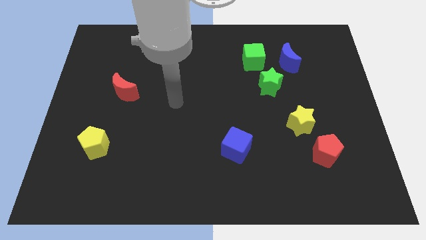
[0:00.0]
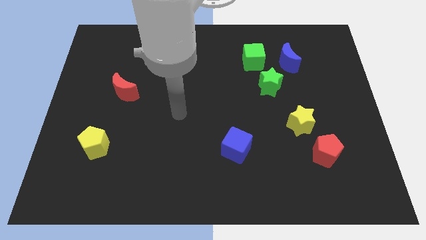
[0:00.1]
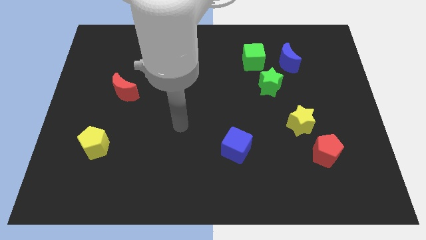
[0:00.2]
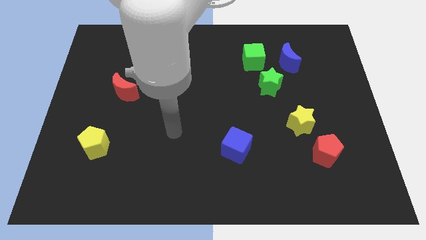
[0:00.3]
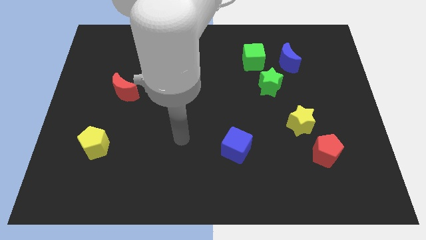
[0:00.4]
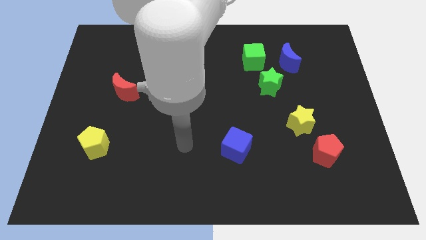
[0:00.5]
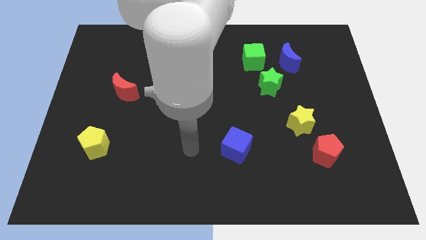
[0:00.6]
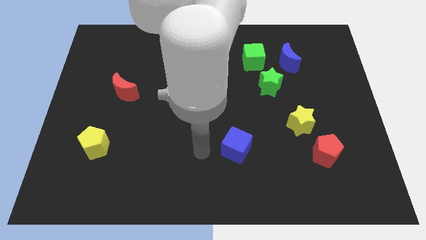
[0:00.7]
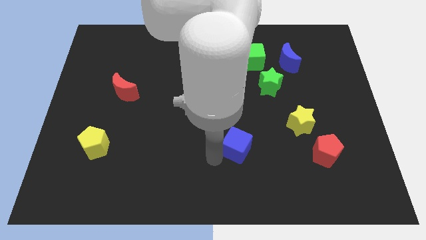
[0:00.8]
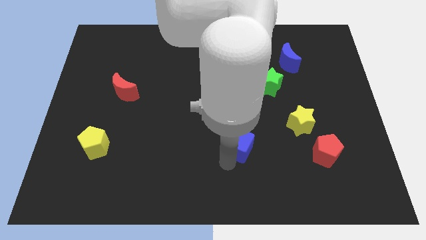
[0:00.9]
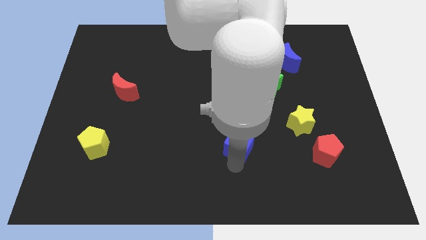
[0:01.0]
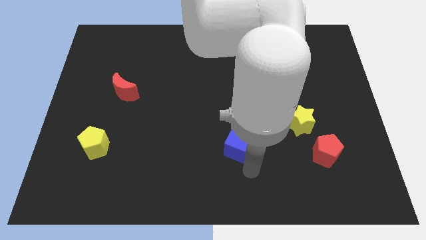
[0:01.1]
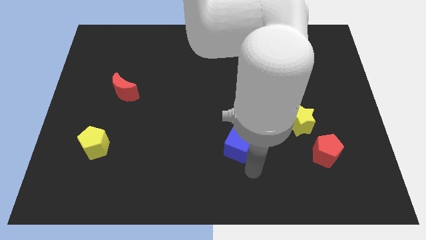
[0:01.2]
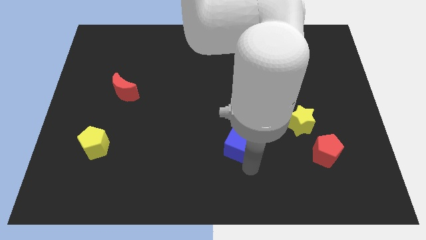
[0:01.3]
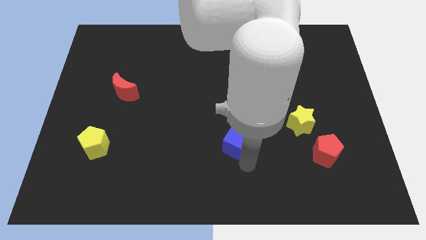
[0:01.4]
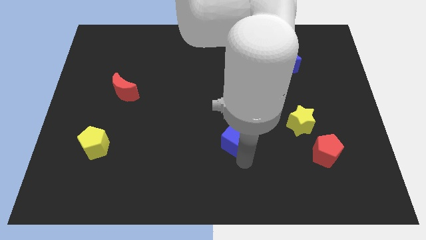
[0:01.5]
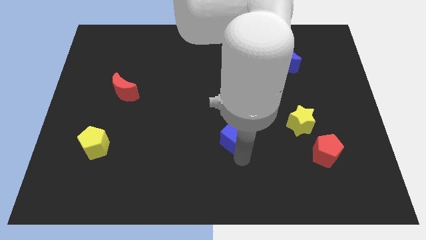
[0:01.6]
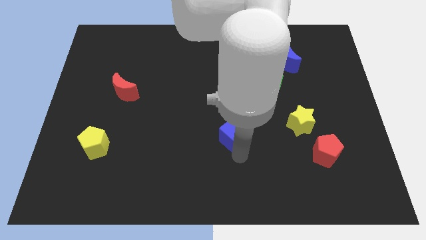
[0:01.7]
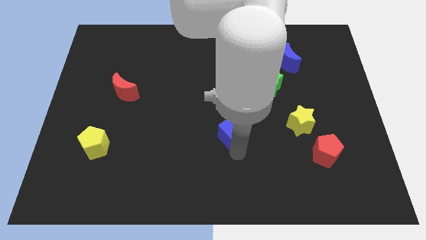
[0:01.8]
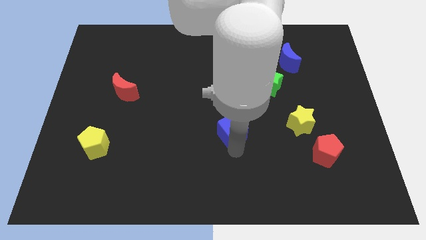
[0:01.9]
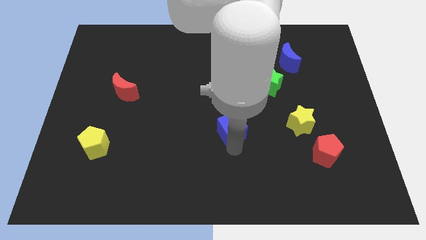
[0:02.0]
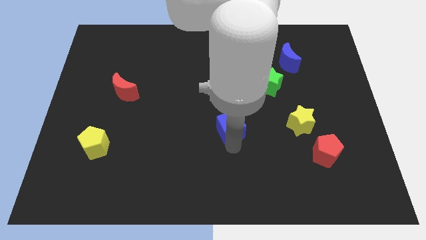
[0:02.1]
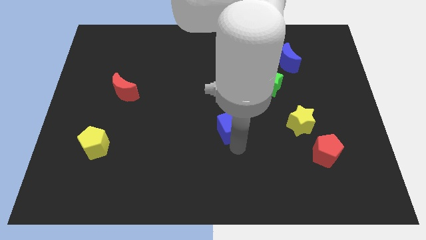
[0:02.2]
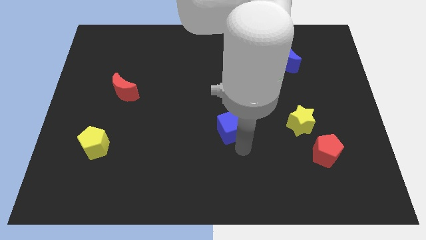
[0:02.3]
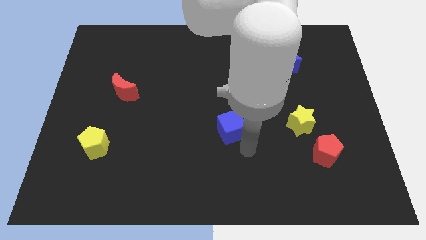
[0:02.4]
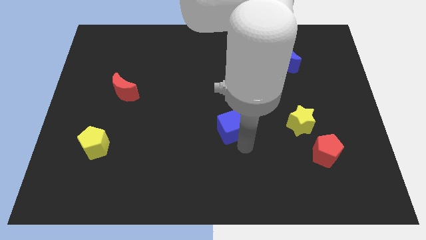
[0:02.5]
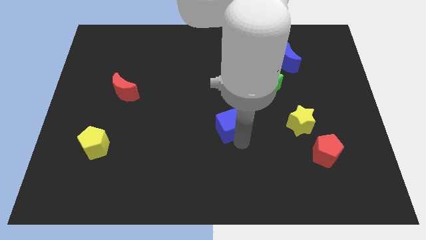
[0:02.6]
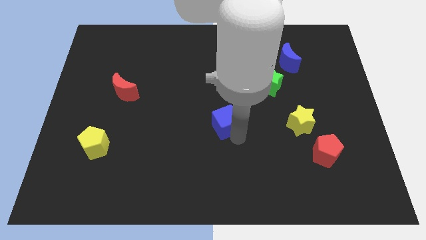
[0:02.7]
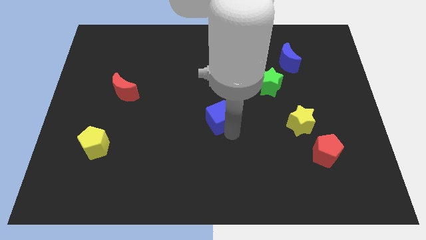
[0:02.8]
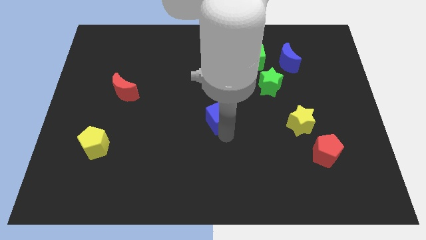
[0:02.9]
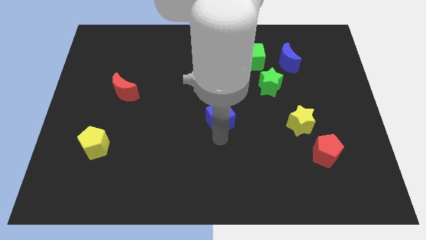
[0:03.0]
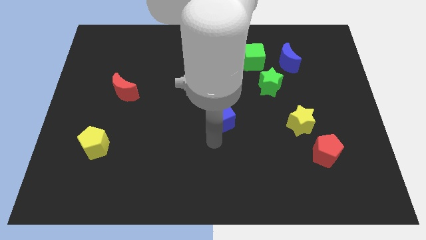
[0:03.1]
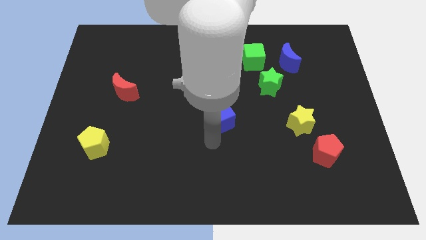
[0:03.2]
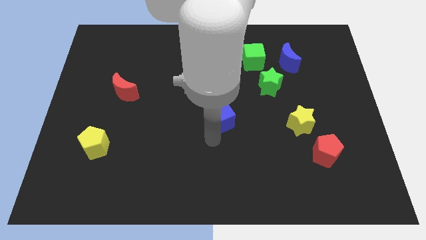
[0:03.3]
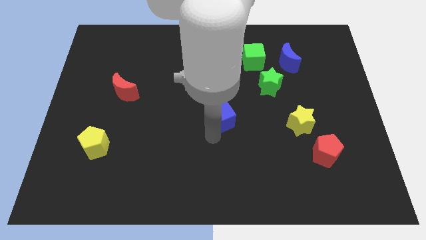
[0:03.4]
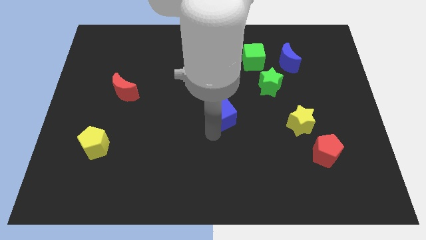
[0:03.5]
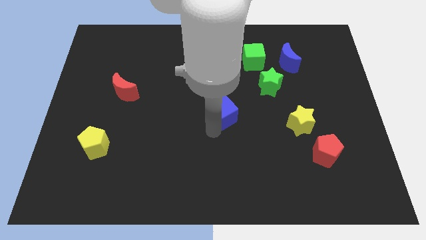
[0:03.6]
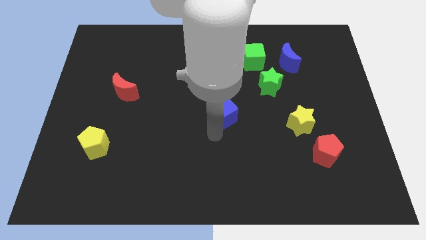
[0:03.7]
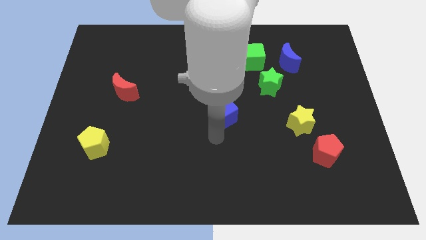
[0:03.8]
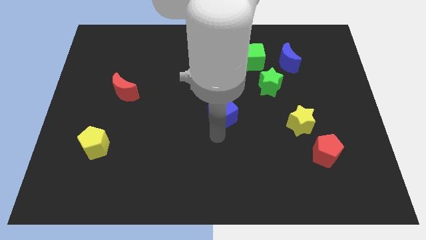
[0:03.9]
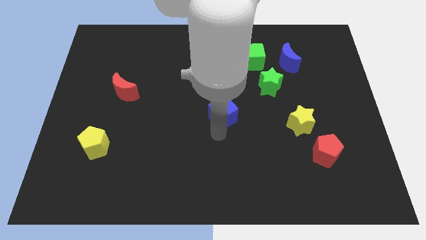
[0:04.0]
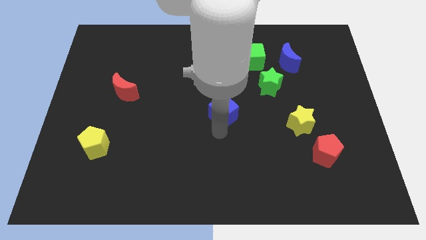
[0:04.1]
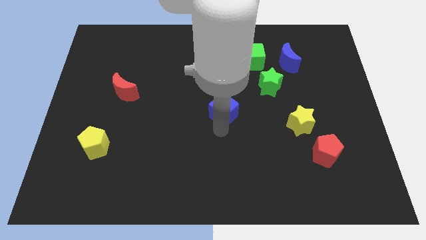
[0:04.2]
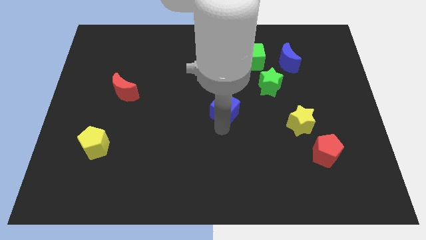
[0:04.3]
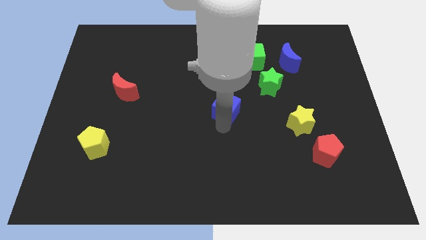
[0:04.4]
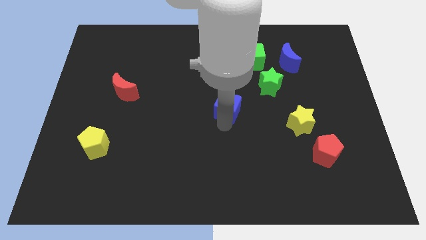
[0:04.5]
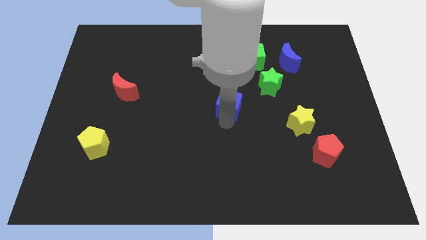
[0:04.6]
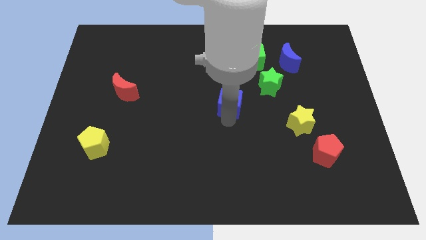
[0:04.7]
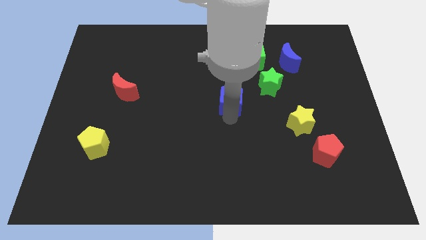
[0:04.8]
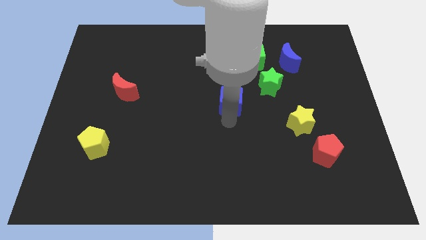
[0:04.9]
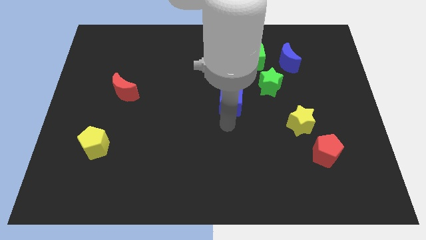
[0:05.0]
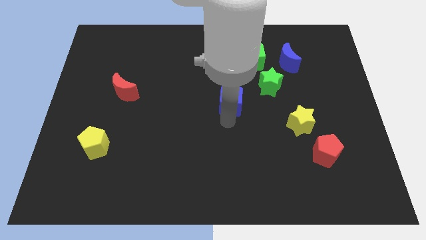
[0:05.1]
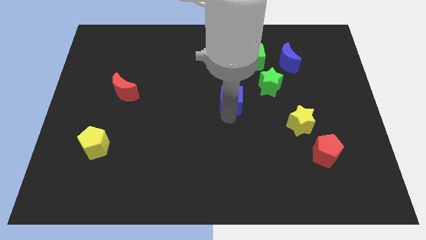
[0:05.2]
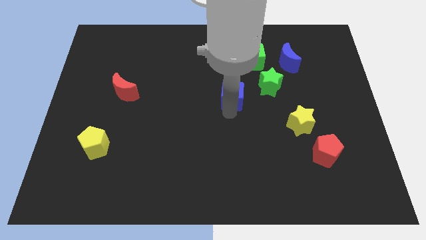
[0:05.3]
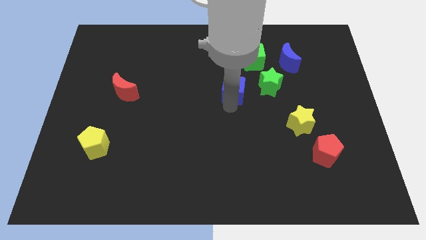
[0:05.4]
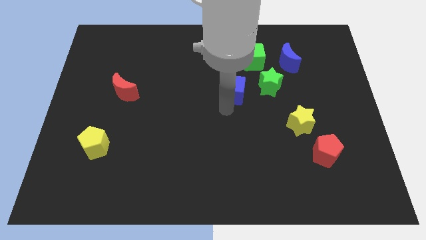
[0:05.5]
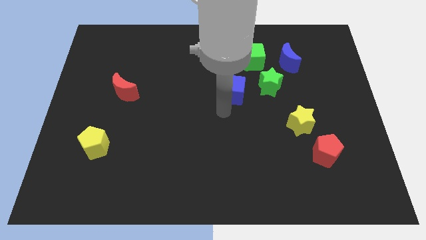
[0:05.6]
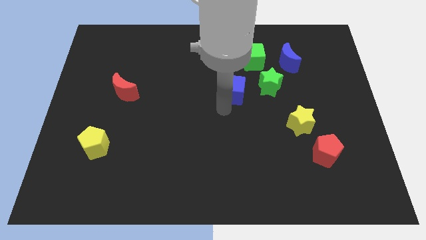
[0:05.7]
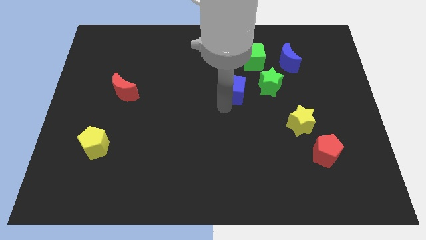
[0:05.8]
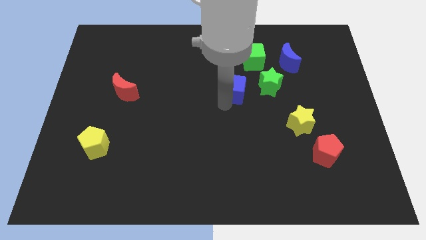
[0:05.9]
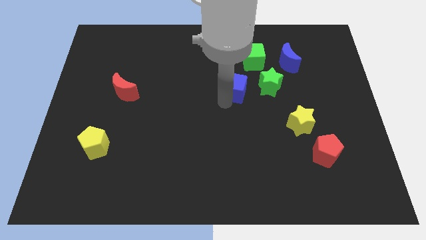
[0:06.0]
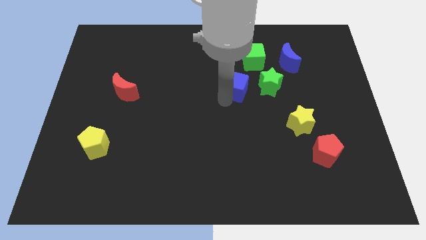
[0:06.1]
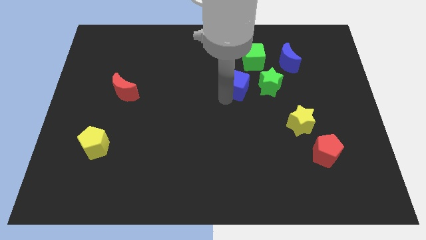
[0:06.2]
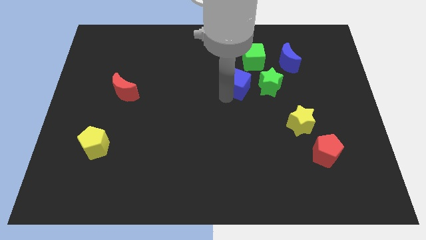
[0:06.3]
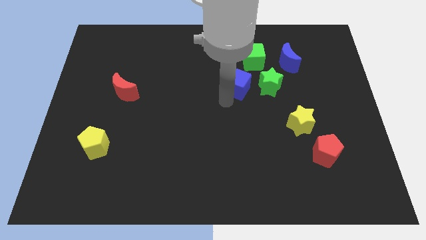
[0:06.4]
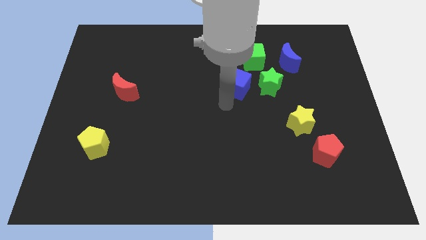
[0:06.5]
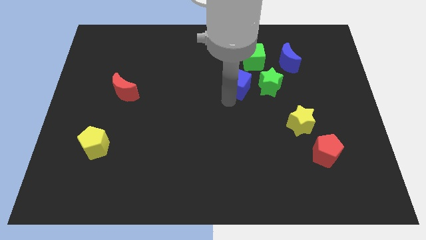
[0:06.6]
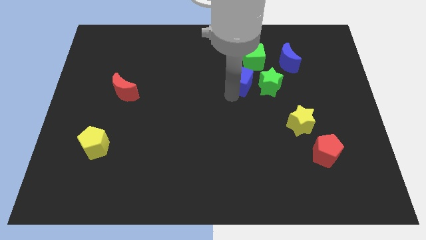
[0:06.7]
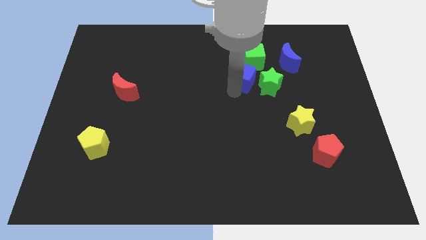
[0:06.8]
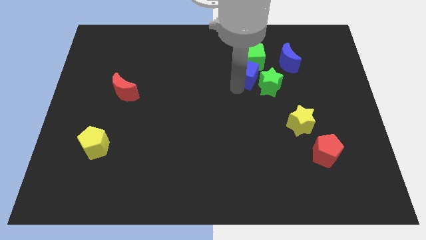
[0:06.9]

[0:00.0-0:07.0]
put the blue cube to the green cube
